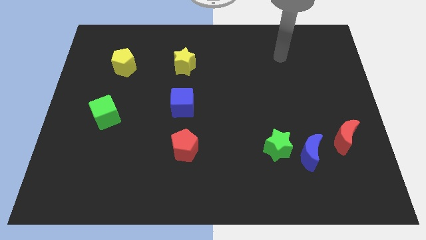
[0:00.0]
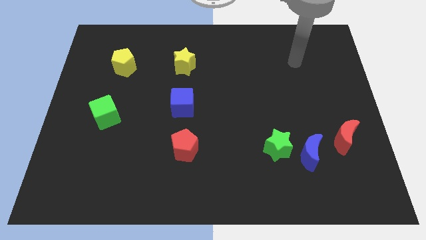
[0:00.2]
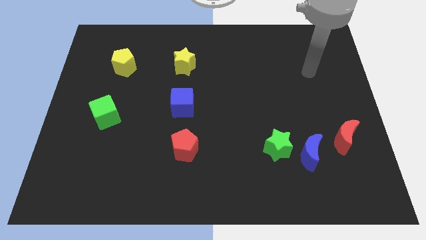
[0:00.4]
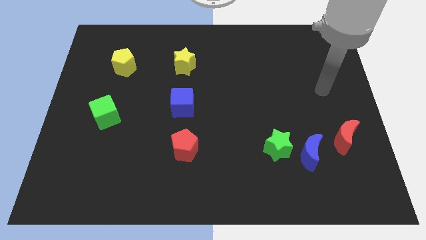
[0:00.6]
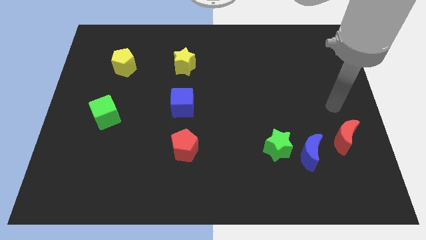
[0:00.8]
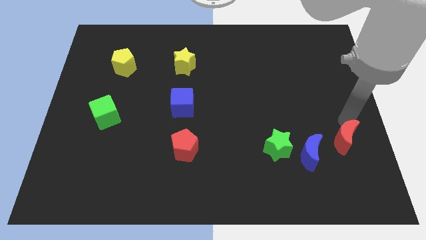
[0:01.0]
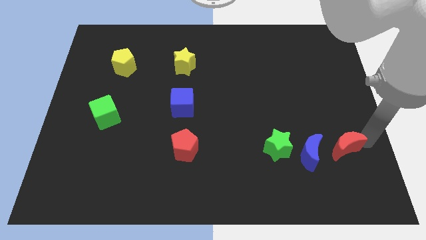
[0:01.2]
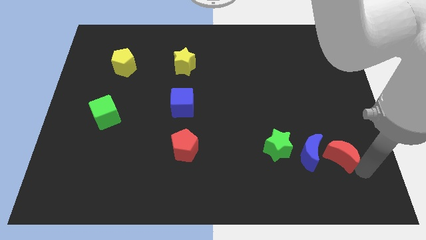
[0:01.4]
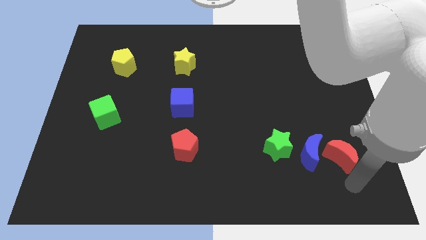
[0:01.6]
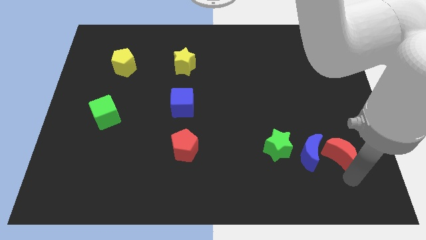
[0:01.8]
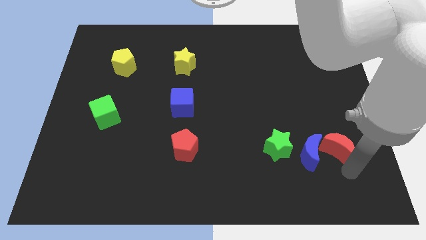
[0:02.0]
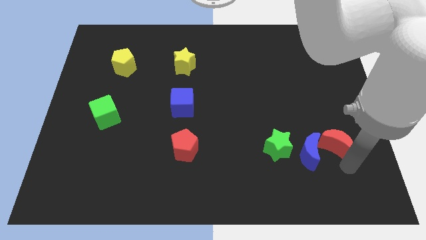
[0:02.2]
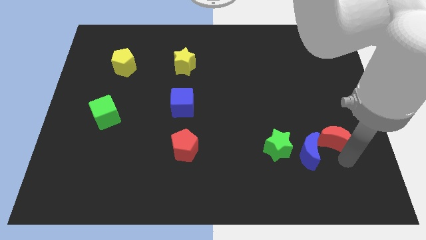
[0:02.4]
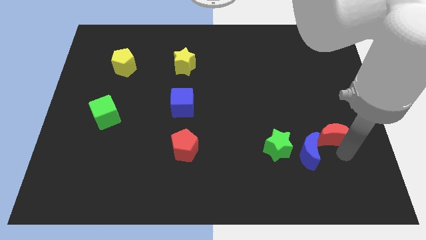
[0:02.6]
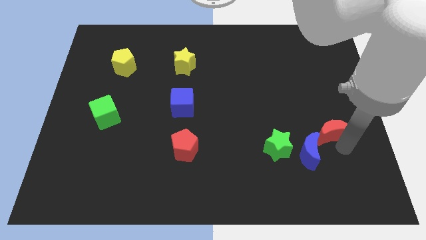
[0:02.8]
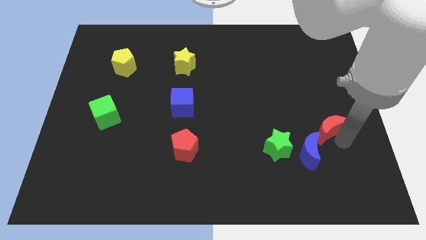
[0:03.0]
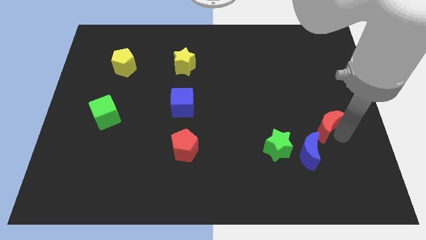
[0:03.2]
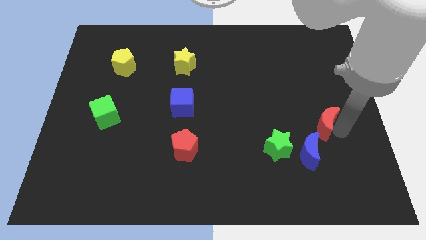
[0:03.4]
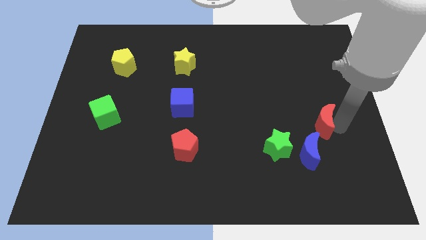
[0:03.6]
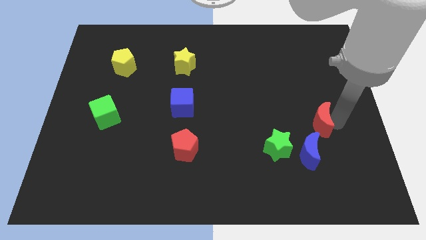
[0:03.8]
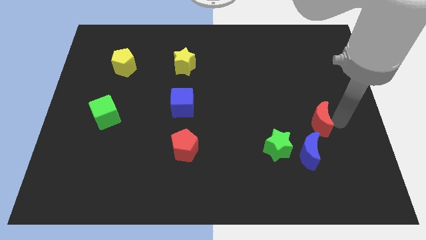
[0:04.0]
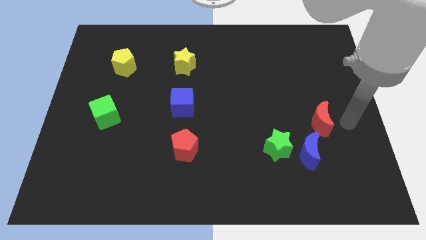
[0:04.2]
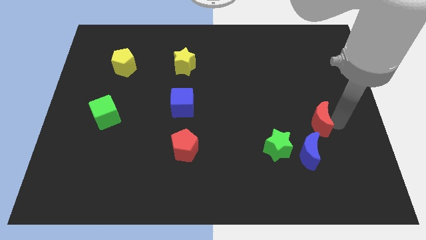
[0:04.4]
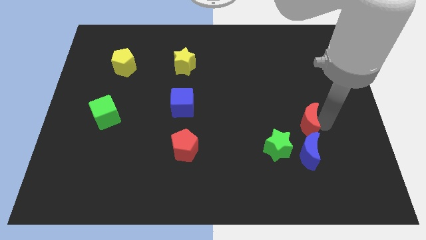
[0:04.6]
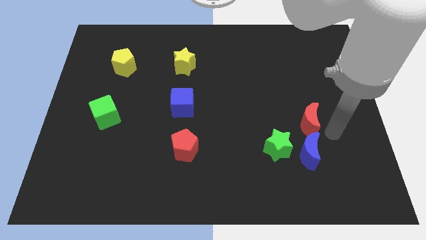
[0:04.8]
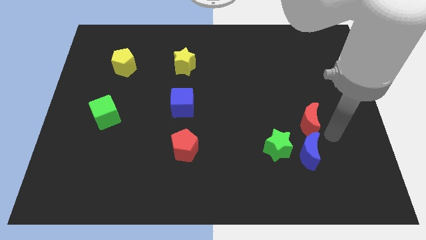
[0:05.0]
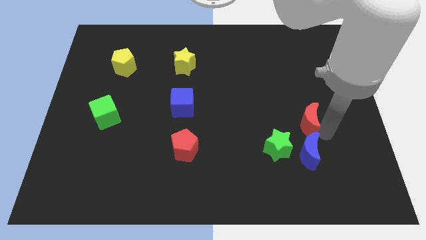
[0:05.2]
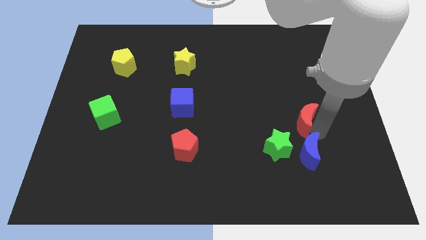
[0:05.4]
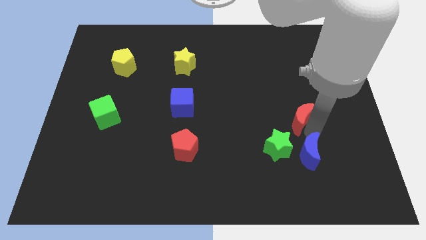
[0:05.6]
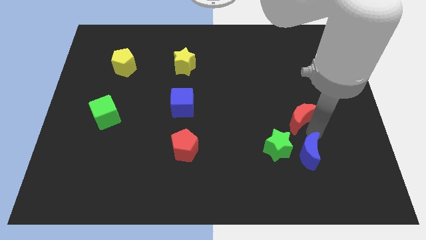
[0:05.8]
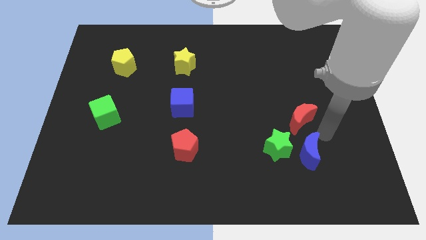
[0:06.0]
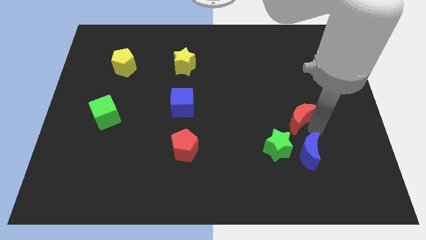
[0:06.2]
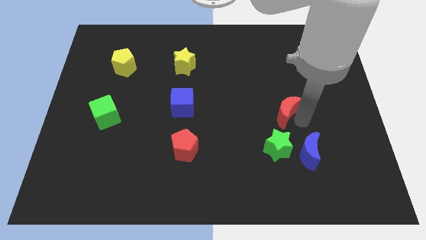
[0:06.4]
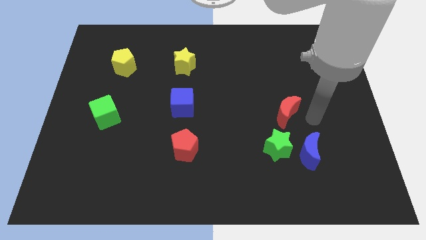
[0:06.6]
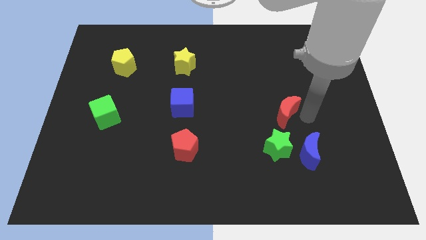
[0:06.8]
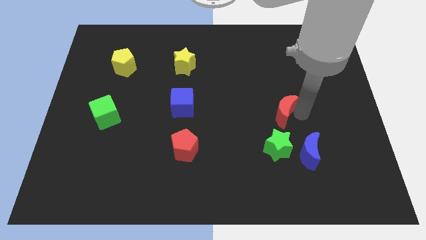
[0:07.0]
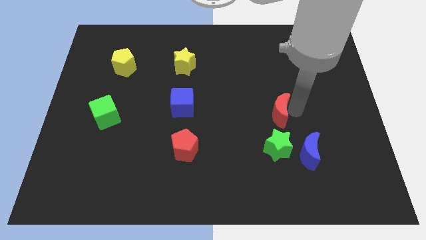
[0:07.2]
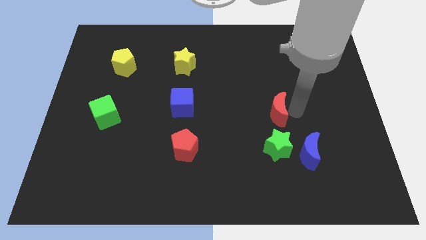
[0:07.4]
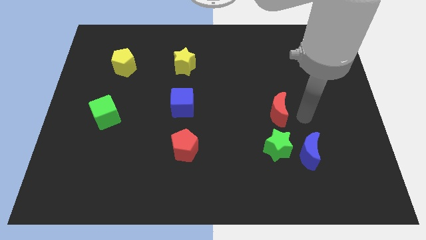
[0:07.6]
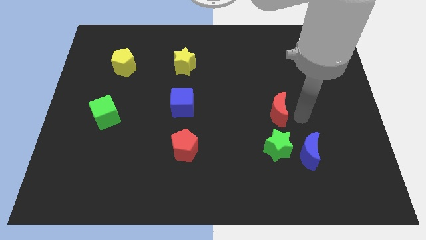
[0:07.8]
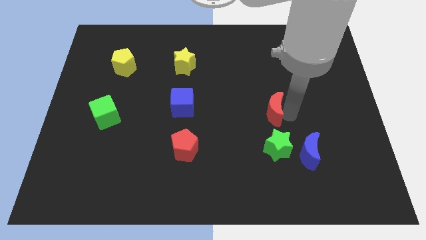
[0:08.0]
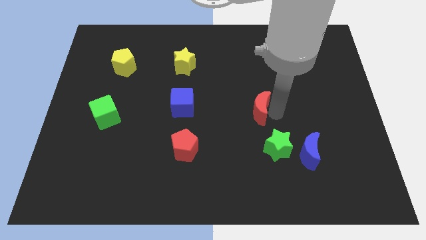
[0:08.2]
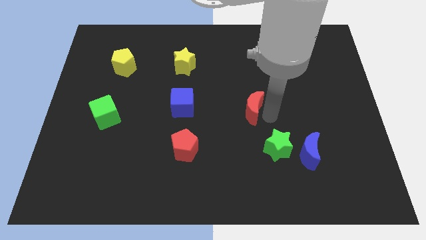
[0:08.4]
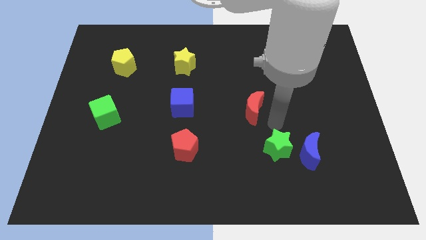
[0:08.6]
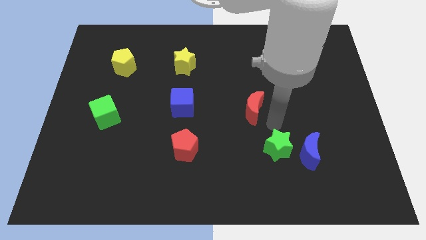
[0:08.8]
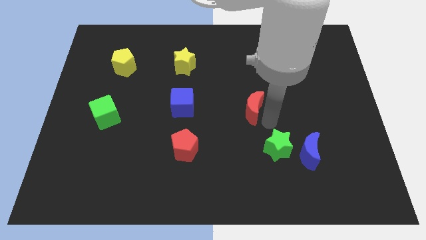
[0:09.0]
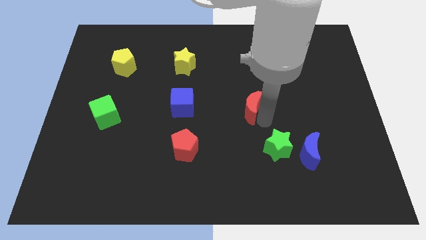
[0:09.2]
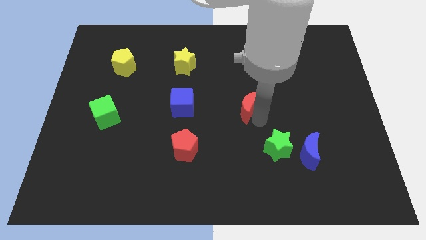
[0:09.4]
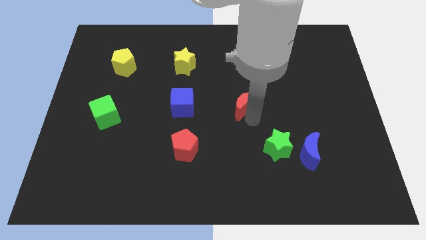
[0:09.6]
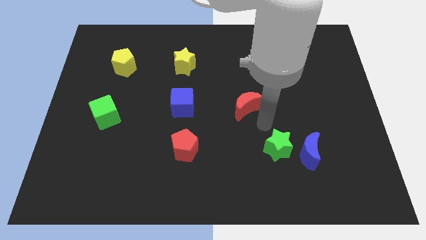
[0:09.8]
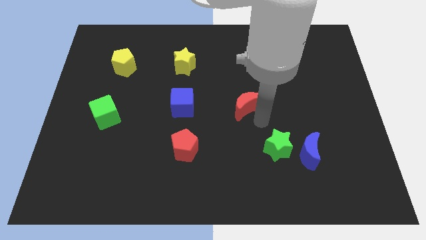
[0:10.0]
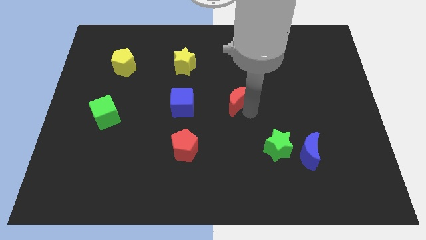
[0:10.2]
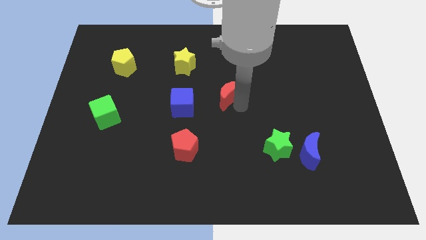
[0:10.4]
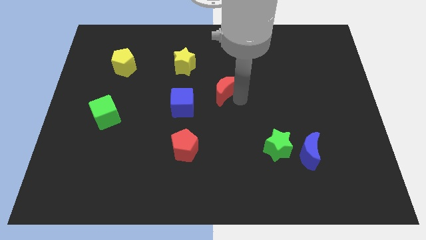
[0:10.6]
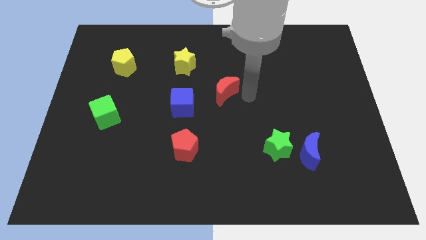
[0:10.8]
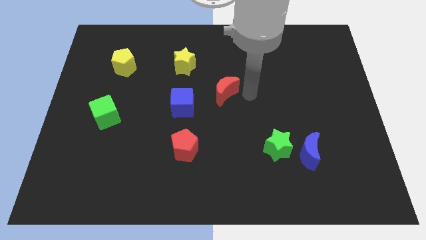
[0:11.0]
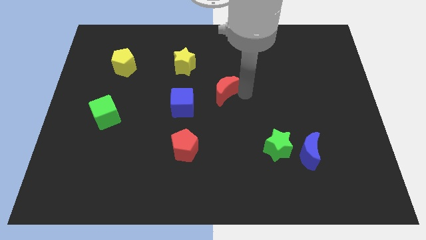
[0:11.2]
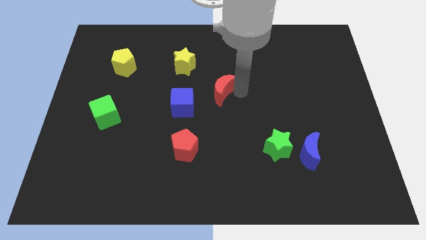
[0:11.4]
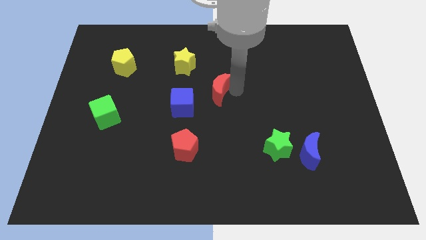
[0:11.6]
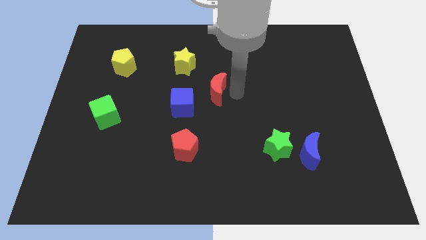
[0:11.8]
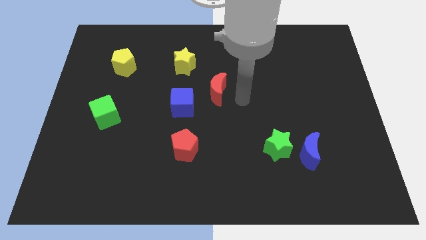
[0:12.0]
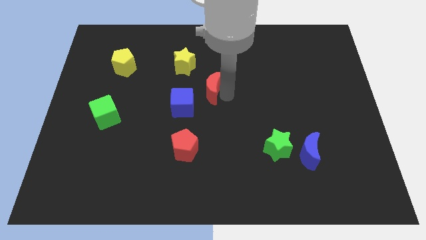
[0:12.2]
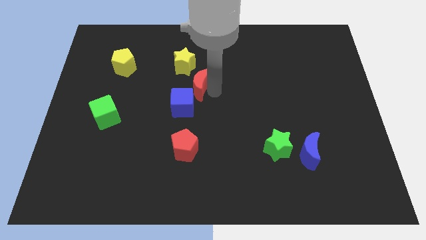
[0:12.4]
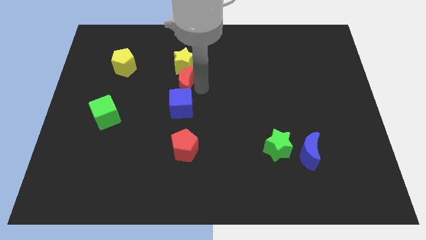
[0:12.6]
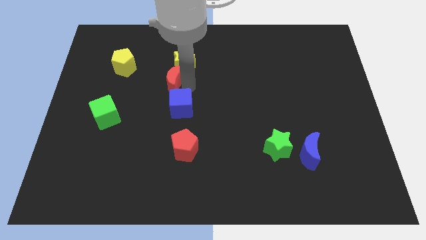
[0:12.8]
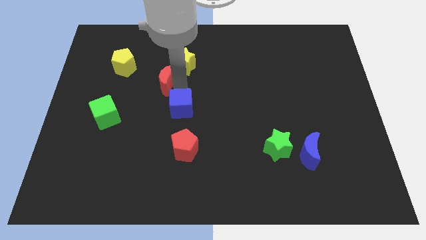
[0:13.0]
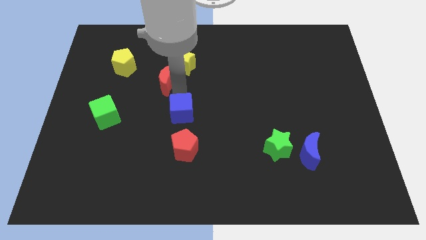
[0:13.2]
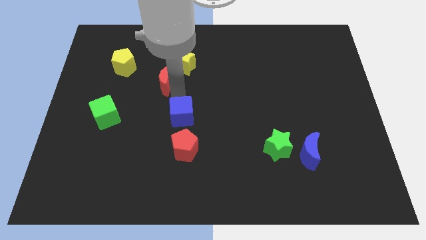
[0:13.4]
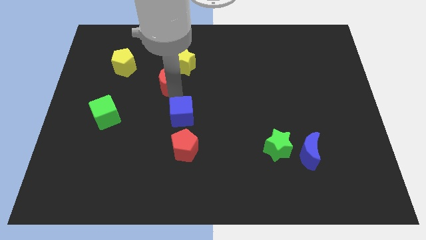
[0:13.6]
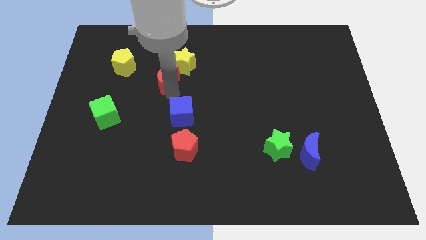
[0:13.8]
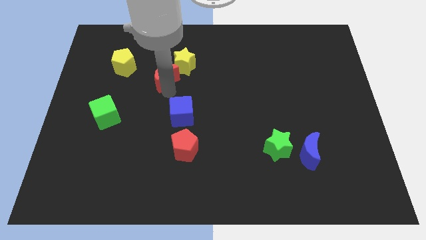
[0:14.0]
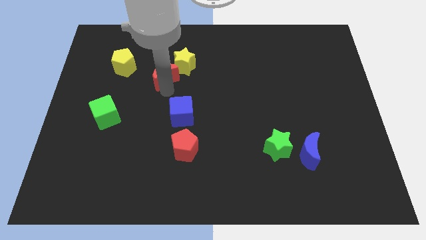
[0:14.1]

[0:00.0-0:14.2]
put the red moon left of the yellow star

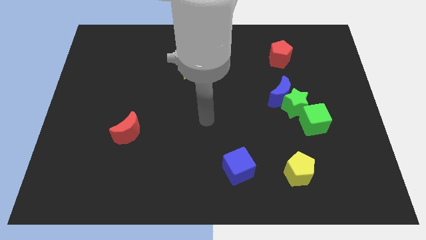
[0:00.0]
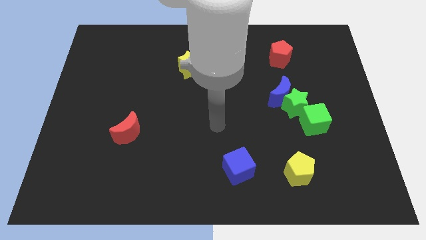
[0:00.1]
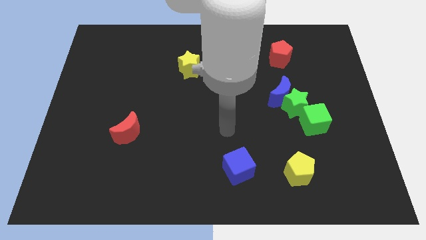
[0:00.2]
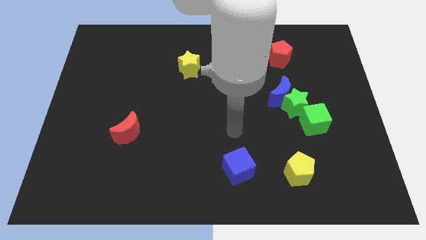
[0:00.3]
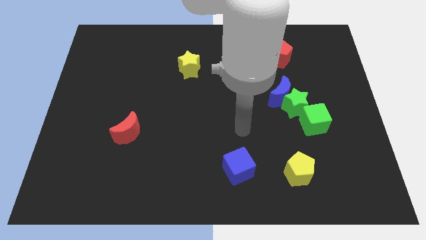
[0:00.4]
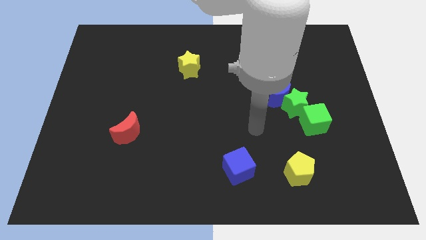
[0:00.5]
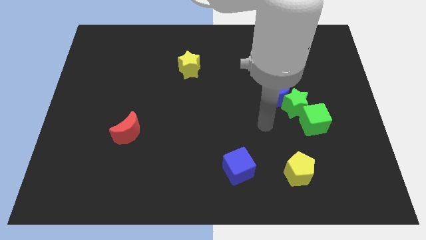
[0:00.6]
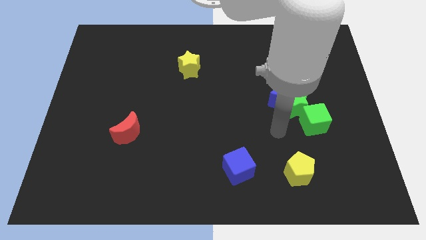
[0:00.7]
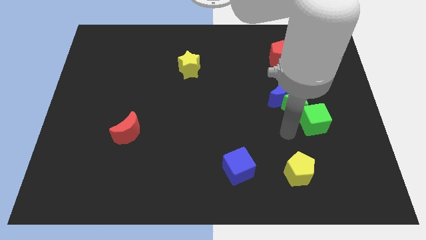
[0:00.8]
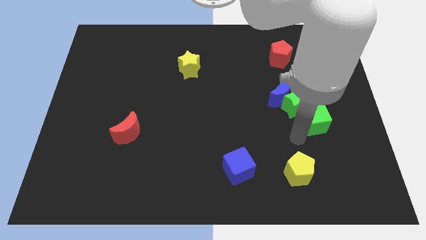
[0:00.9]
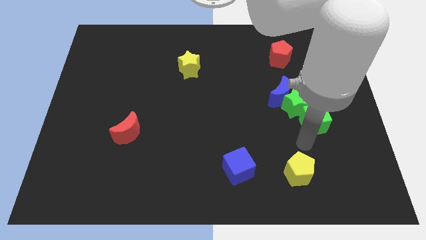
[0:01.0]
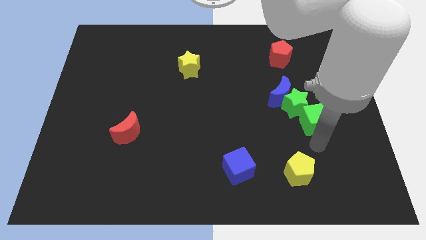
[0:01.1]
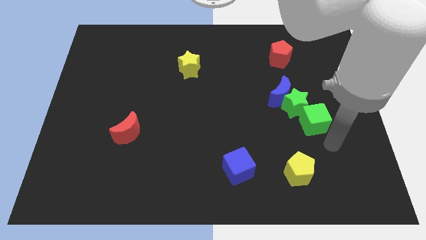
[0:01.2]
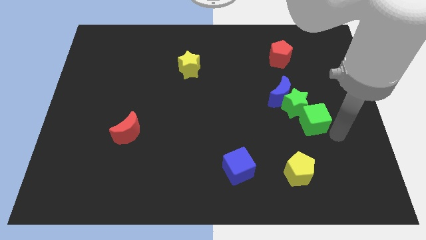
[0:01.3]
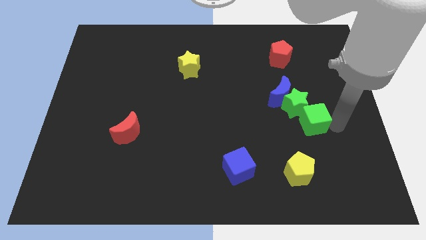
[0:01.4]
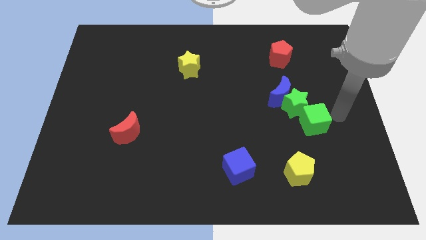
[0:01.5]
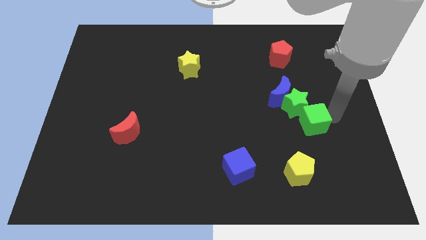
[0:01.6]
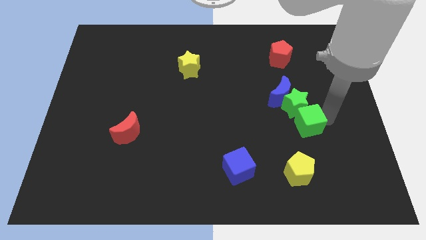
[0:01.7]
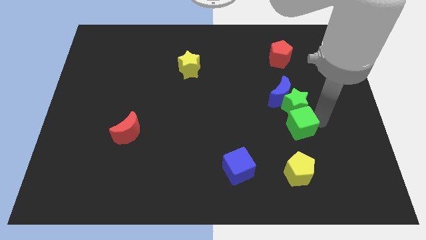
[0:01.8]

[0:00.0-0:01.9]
slide the green cube to the bottom of the blue moon

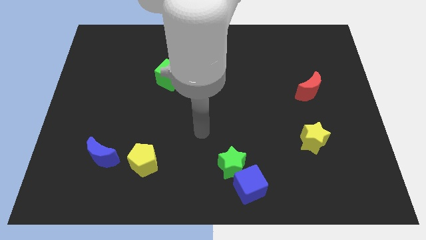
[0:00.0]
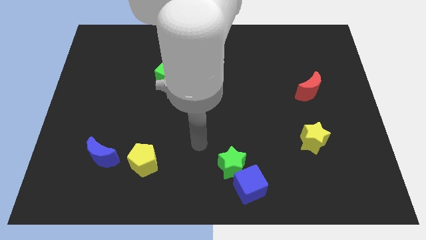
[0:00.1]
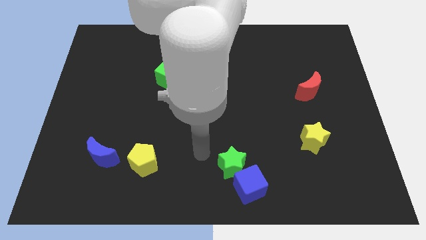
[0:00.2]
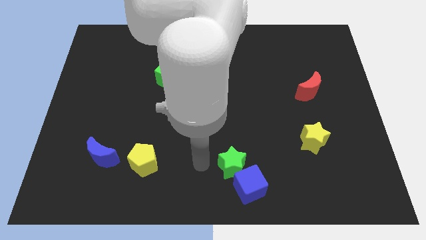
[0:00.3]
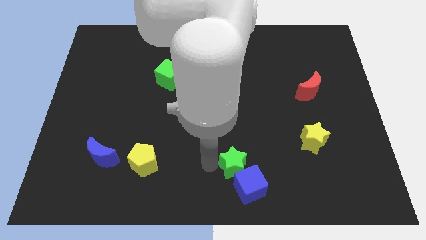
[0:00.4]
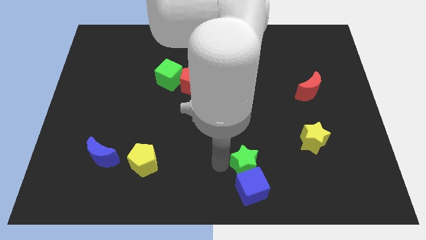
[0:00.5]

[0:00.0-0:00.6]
put the green star to the top right side of the blue cube
